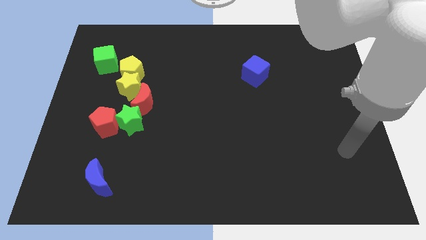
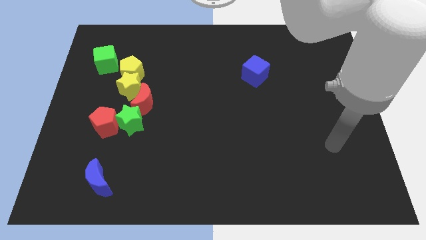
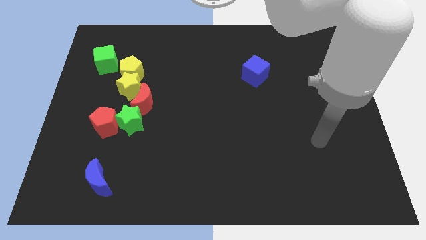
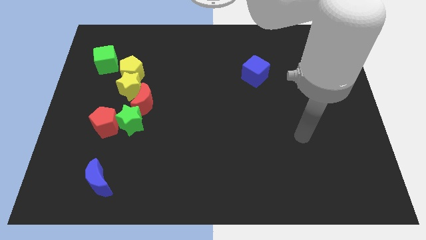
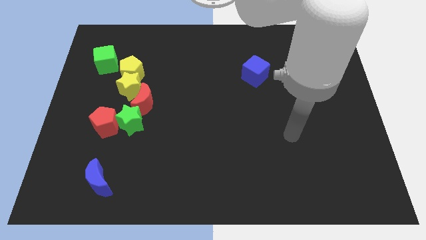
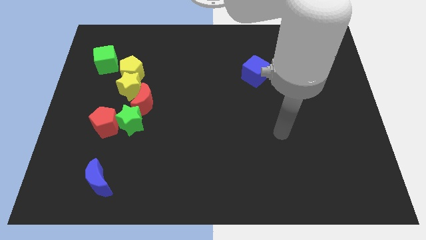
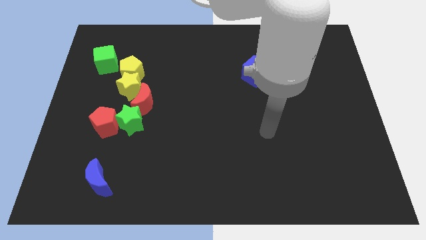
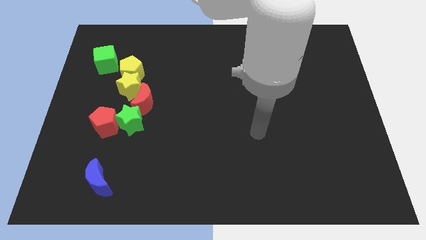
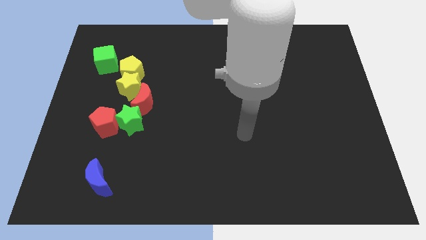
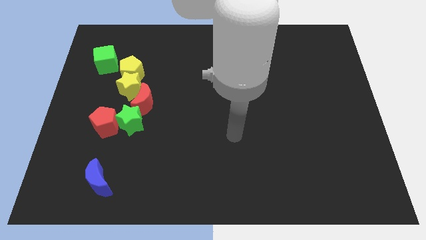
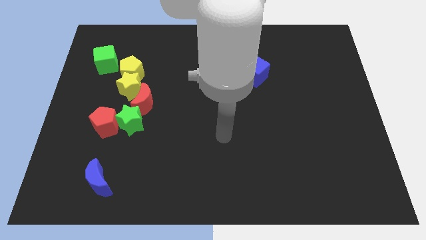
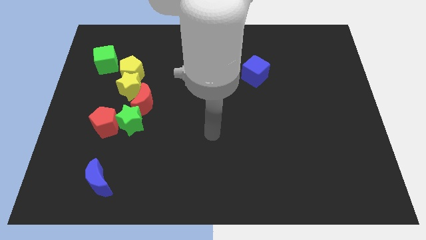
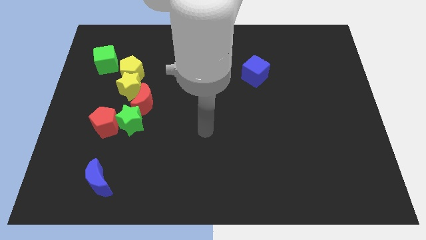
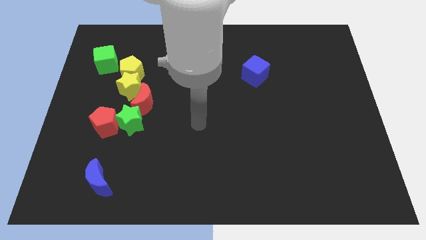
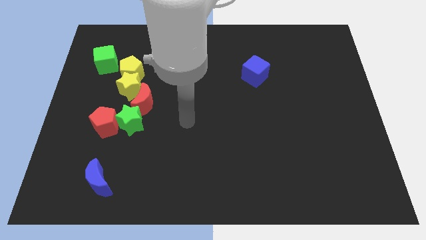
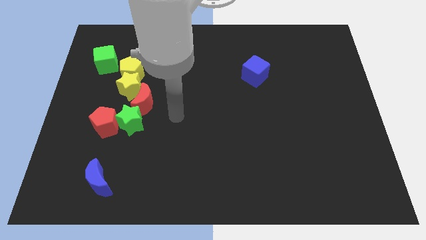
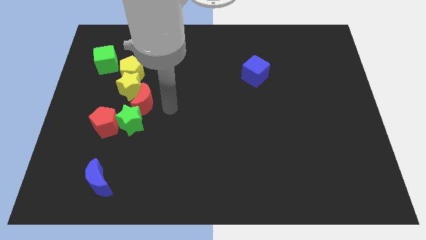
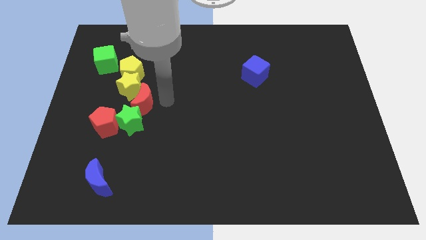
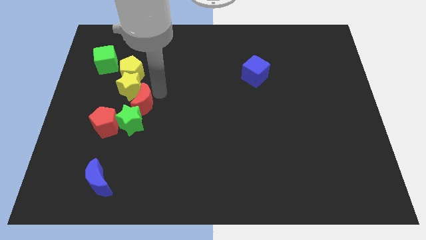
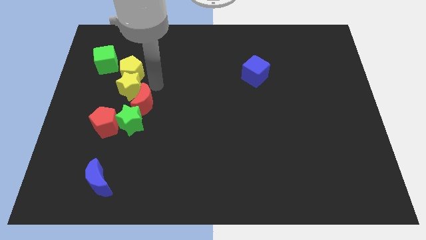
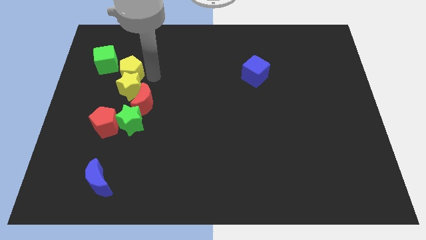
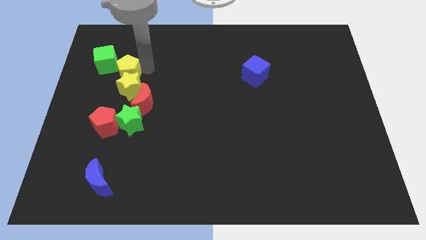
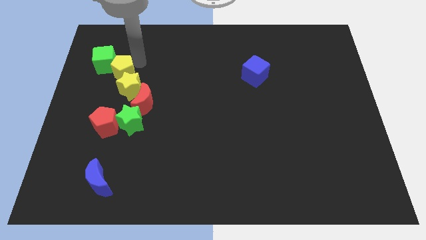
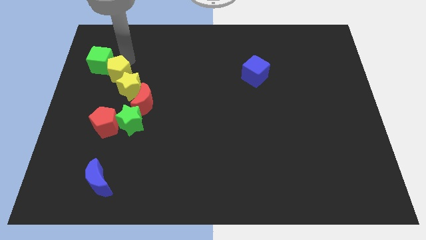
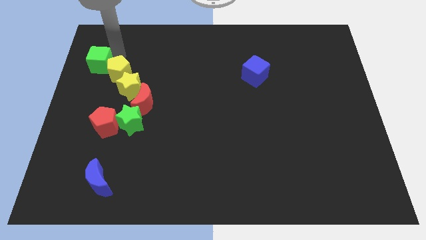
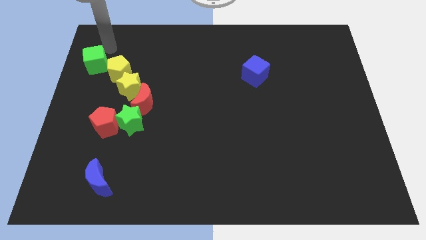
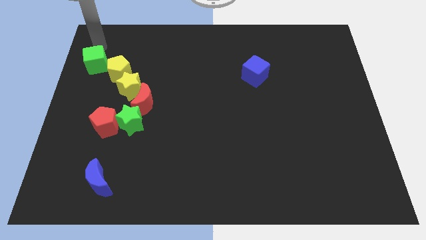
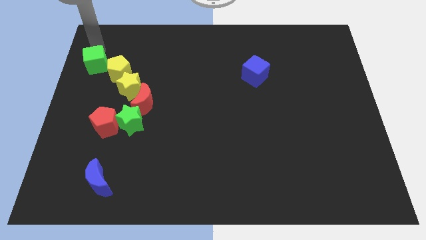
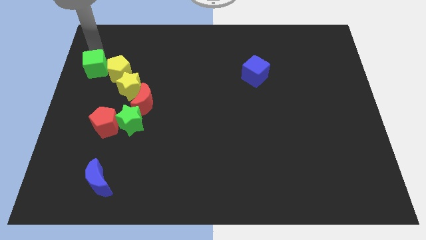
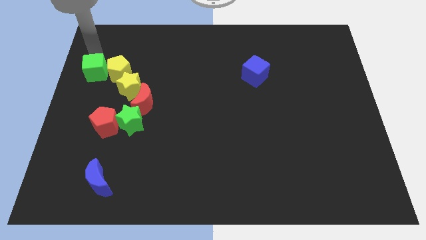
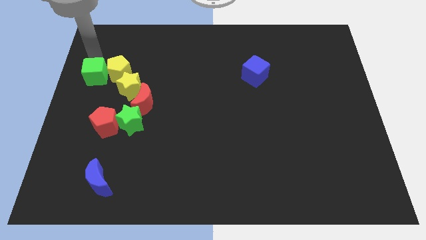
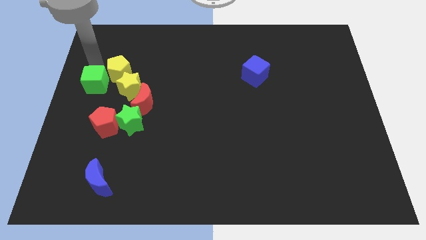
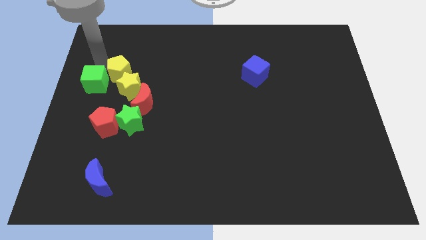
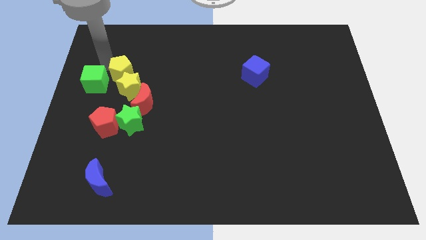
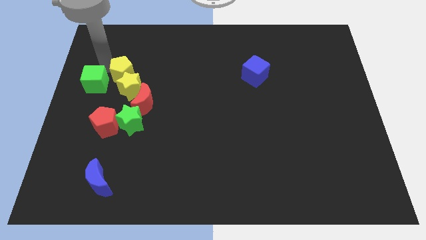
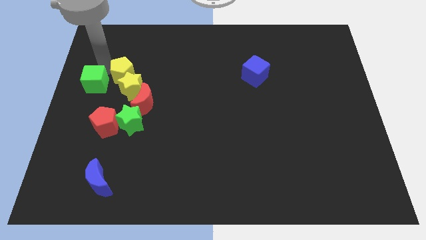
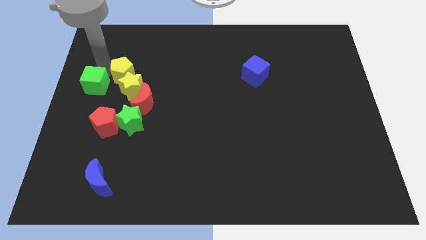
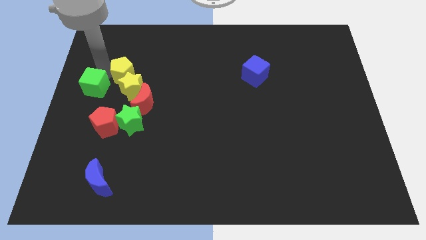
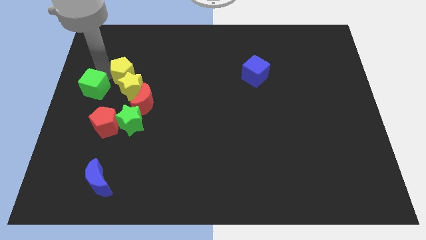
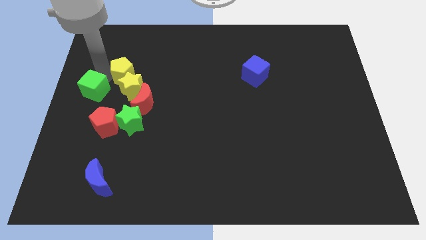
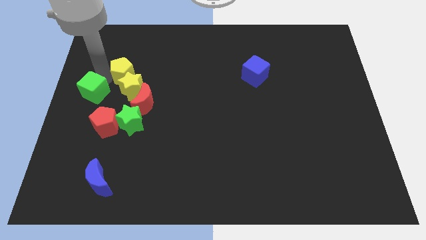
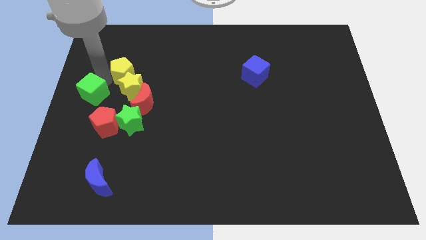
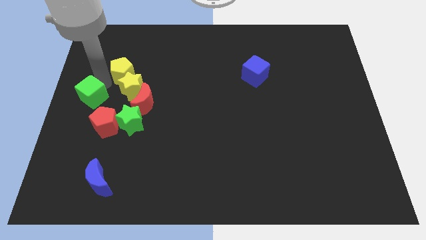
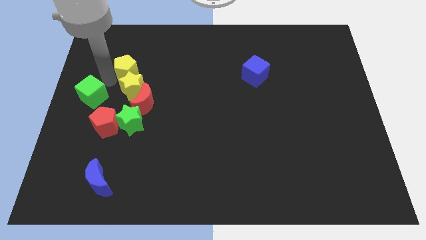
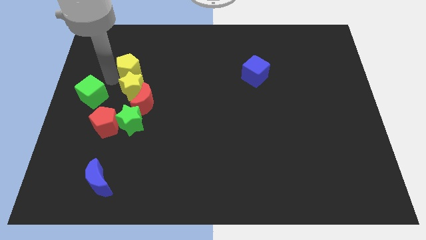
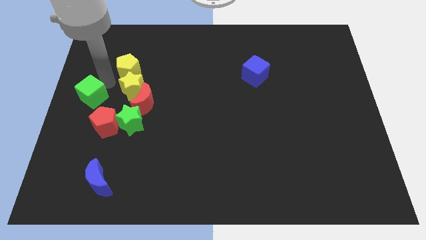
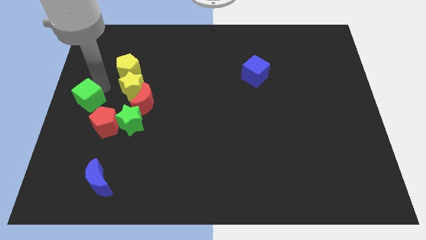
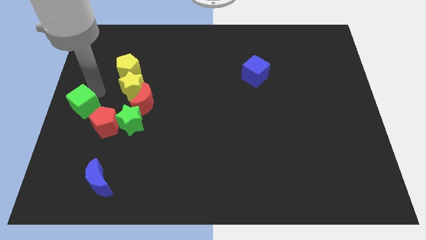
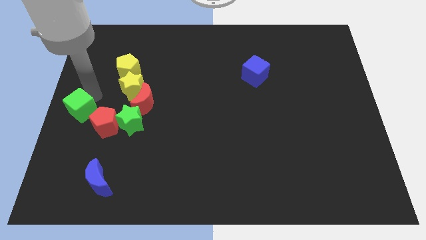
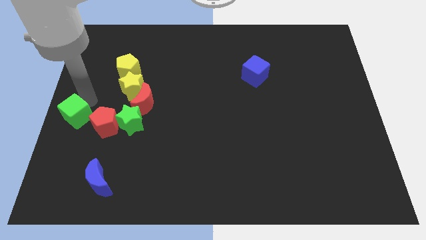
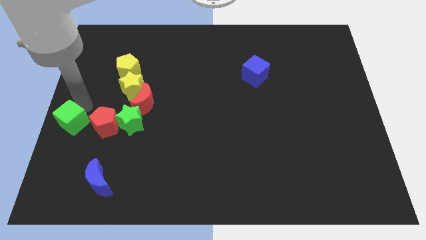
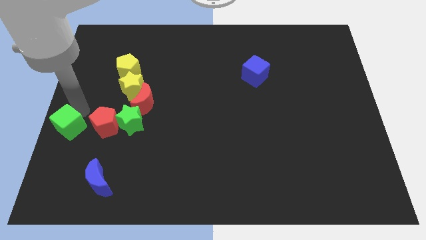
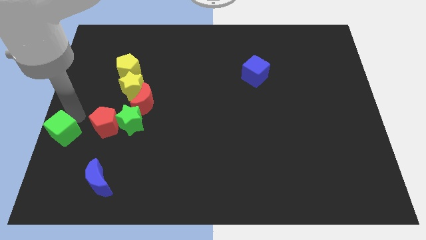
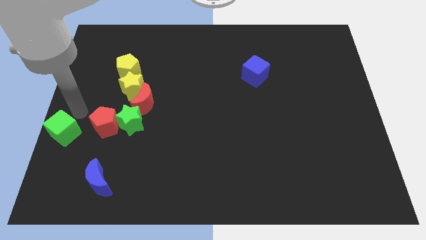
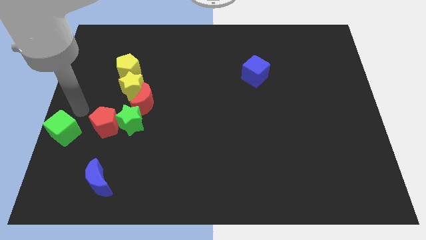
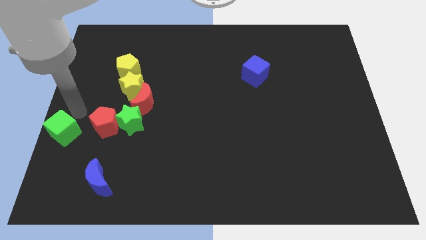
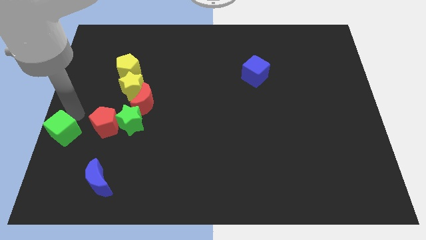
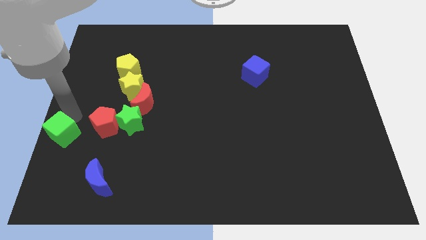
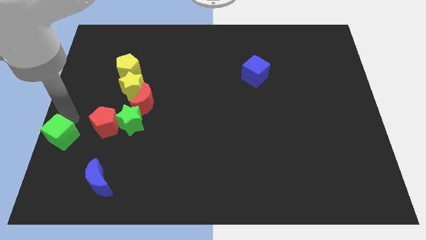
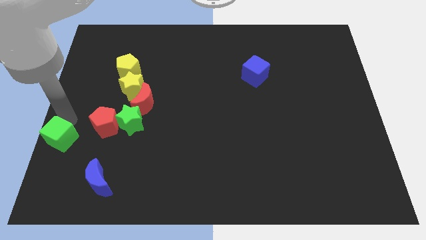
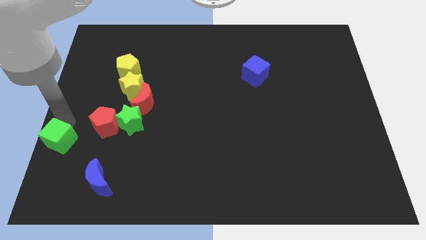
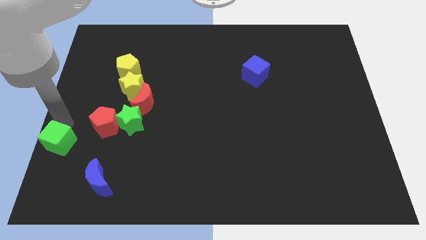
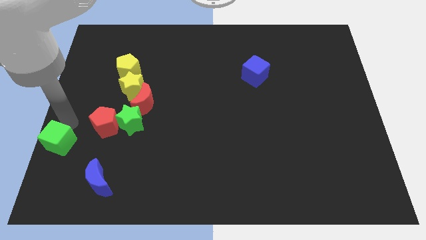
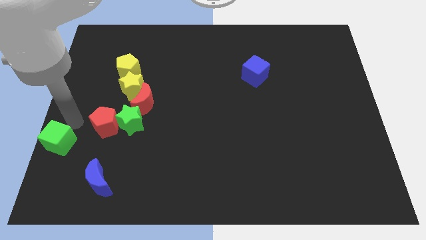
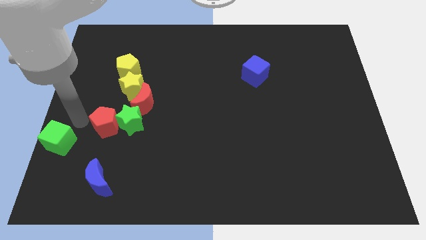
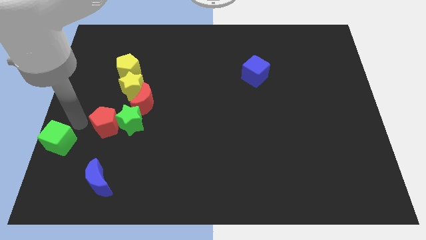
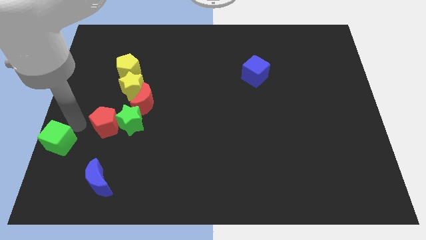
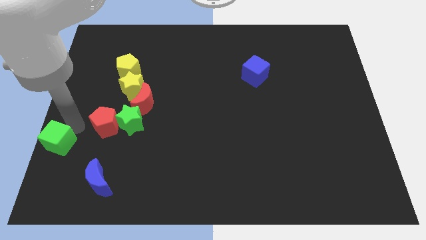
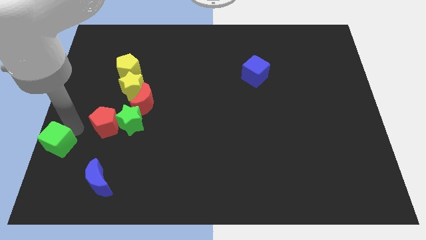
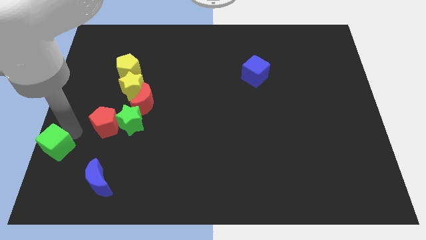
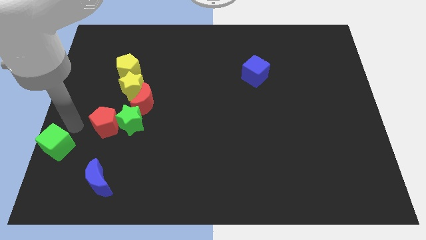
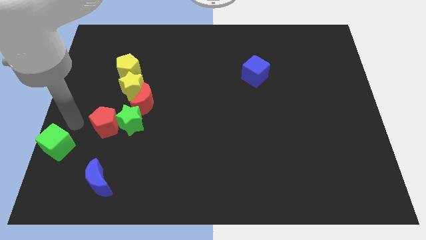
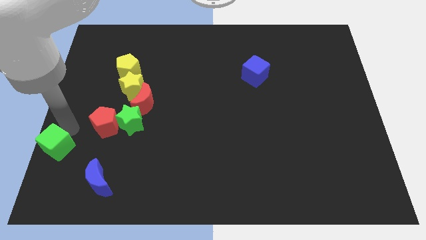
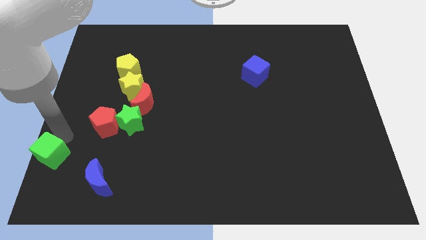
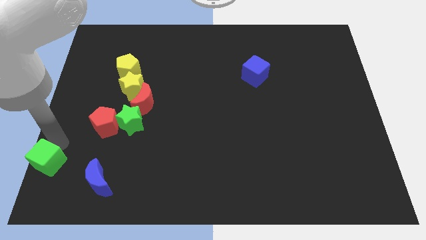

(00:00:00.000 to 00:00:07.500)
move the green cube to the bottom left corner
